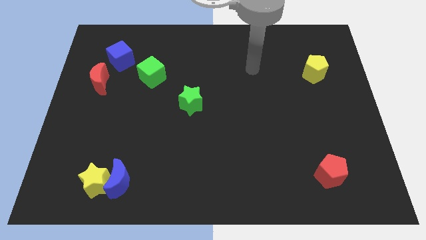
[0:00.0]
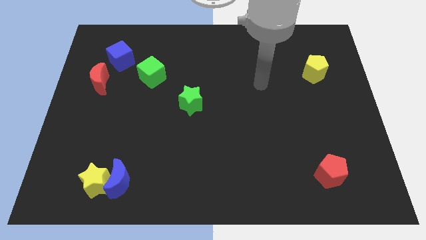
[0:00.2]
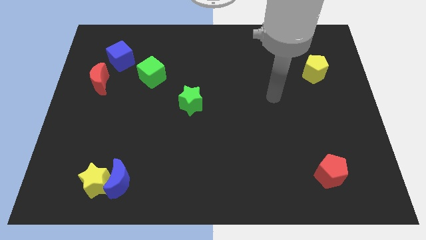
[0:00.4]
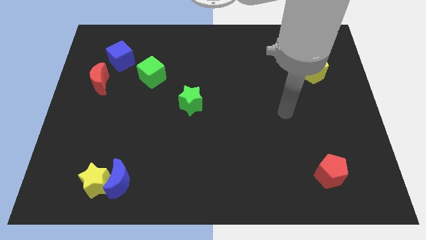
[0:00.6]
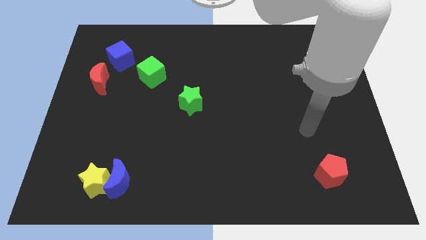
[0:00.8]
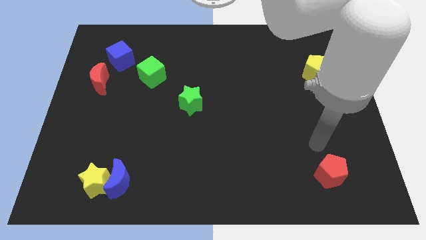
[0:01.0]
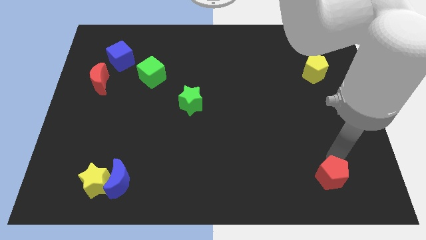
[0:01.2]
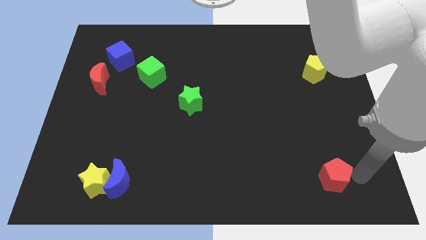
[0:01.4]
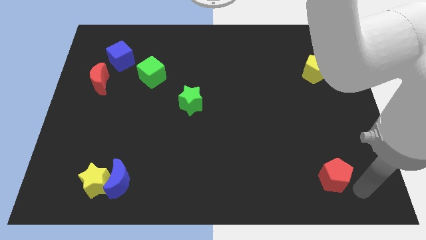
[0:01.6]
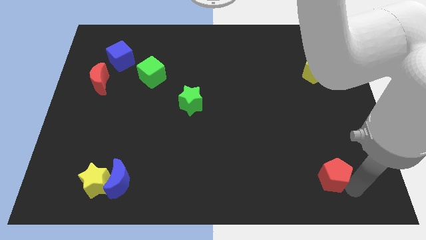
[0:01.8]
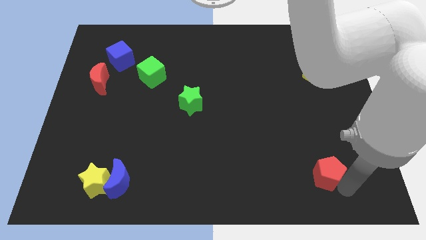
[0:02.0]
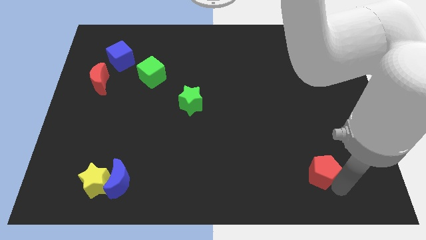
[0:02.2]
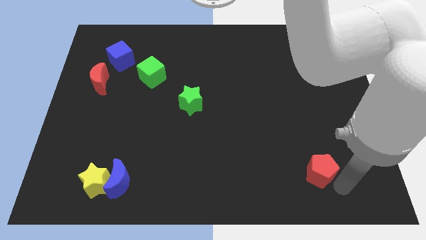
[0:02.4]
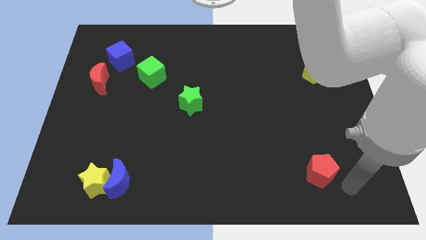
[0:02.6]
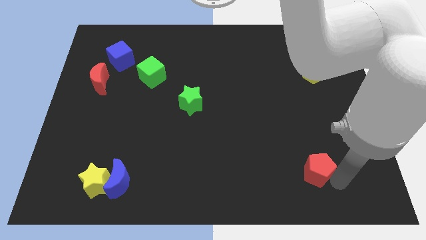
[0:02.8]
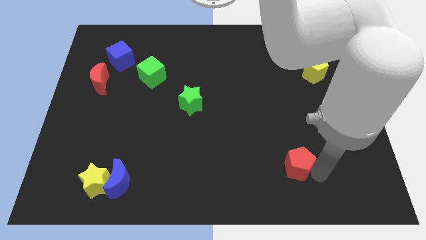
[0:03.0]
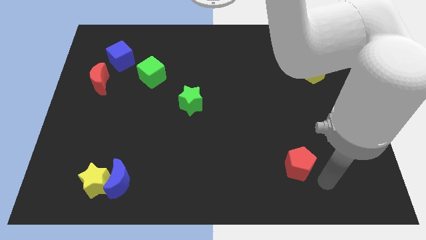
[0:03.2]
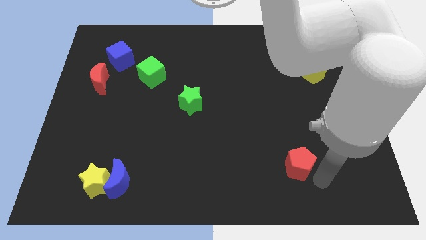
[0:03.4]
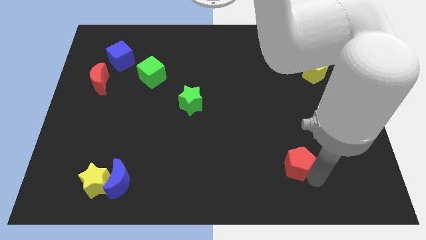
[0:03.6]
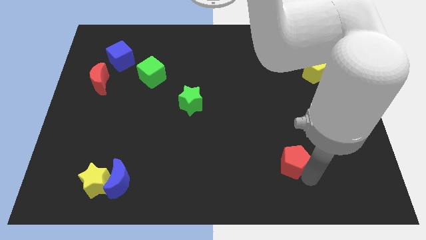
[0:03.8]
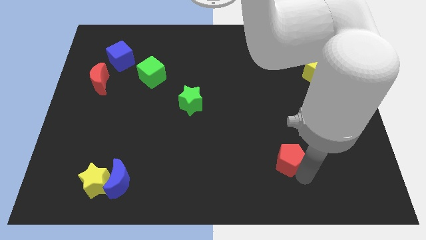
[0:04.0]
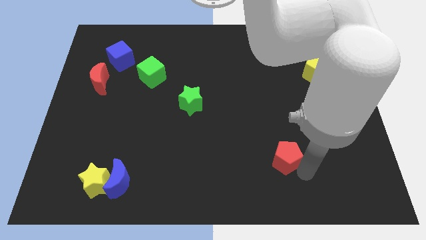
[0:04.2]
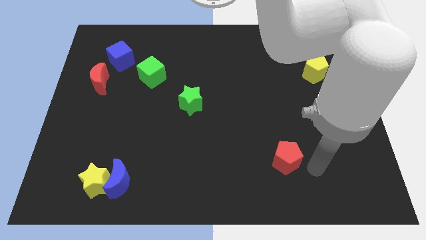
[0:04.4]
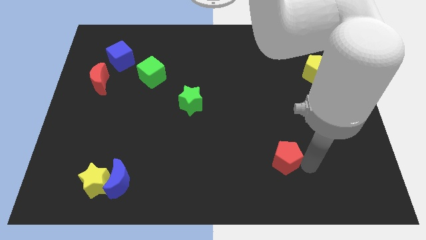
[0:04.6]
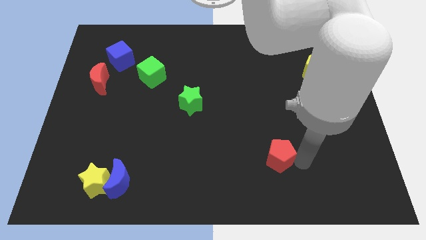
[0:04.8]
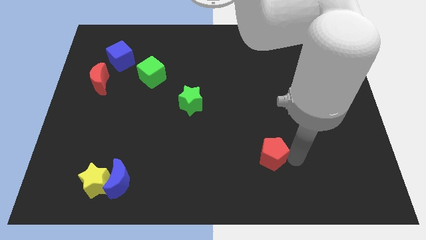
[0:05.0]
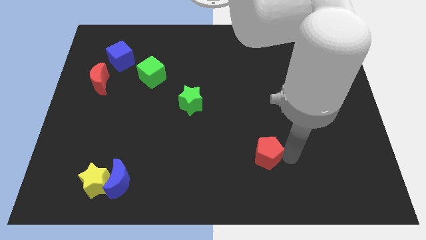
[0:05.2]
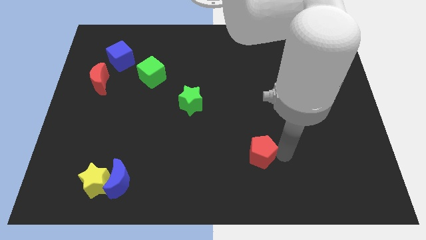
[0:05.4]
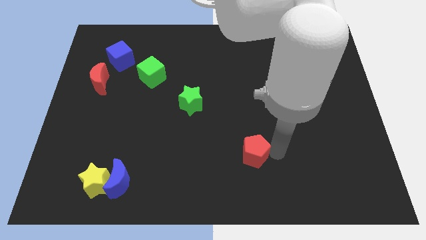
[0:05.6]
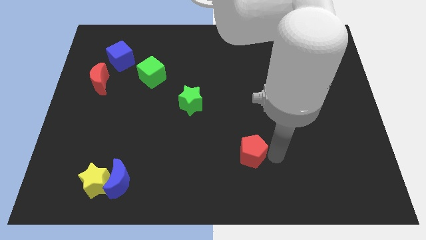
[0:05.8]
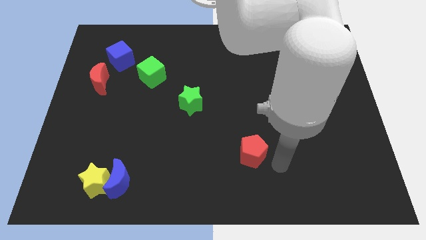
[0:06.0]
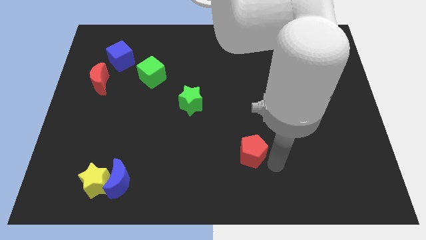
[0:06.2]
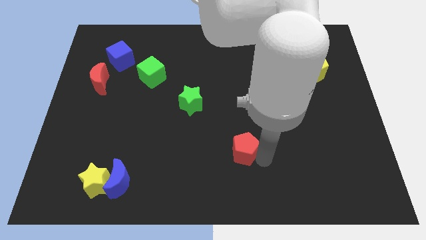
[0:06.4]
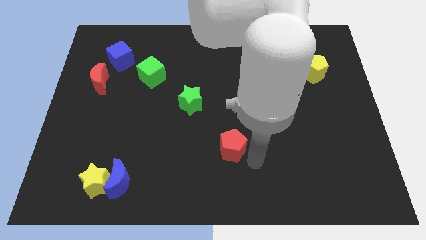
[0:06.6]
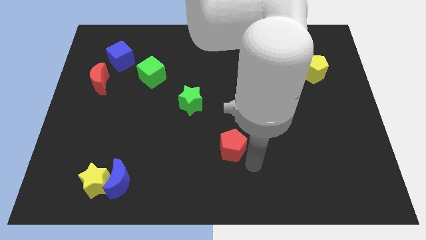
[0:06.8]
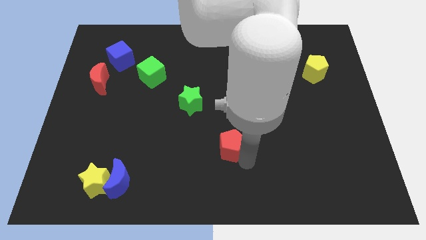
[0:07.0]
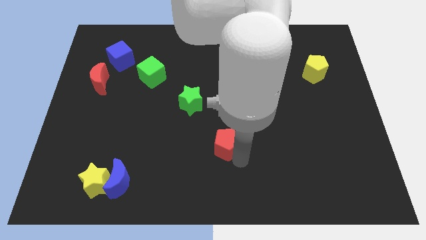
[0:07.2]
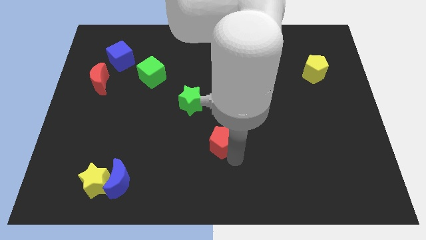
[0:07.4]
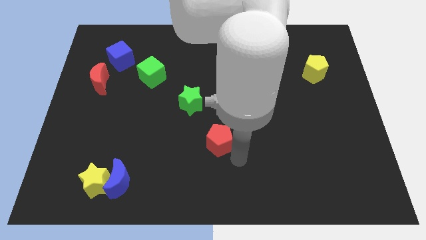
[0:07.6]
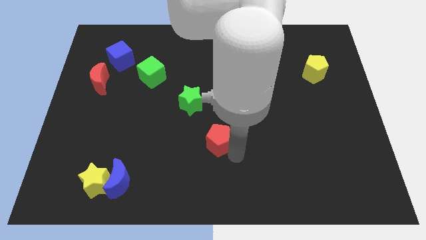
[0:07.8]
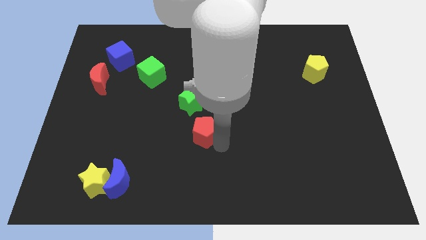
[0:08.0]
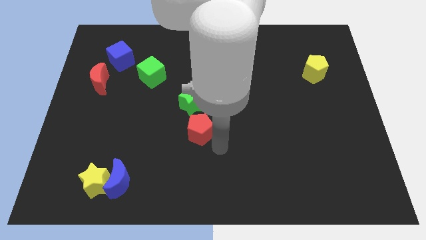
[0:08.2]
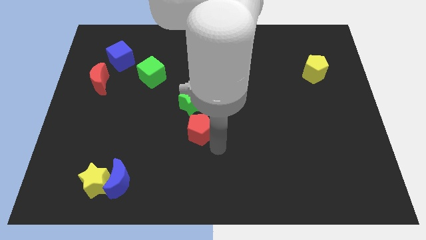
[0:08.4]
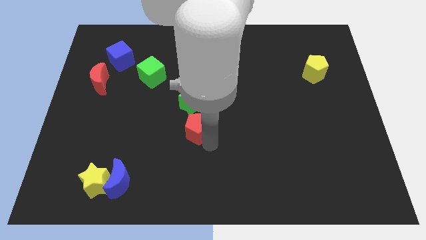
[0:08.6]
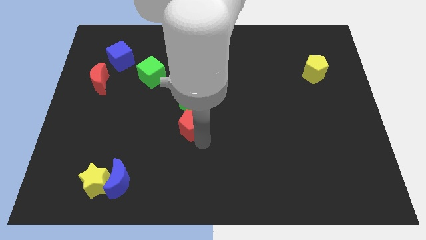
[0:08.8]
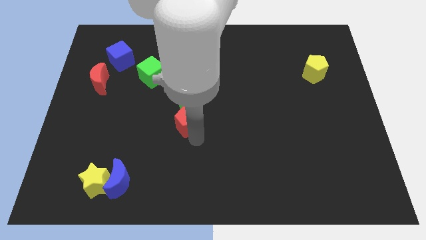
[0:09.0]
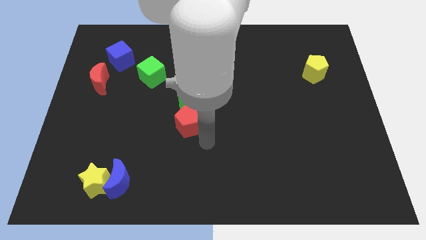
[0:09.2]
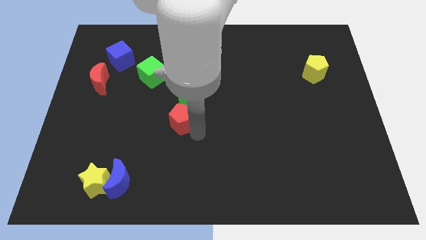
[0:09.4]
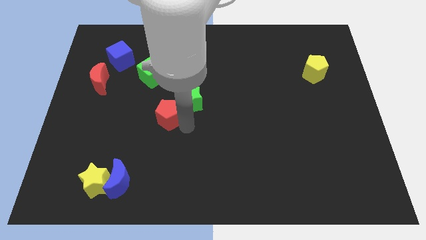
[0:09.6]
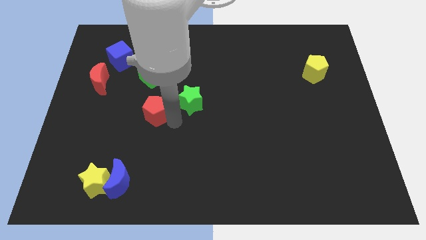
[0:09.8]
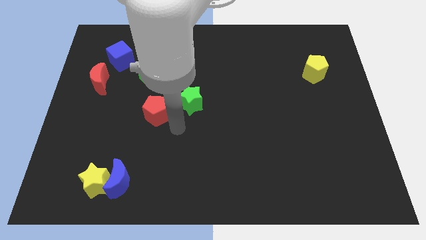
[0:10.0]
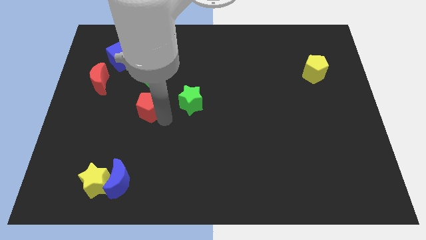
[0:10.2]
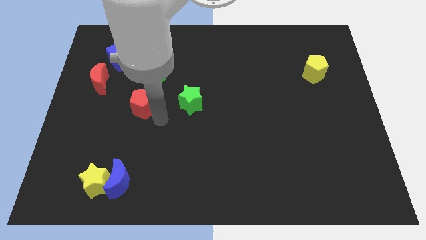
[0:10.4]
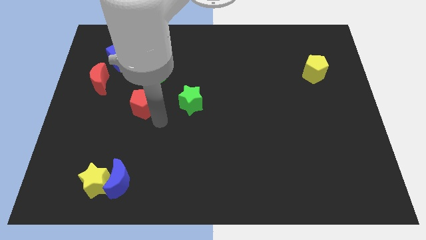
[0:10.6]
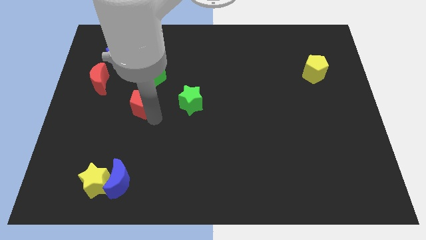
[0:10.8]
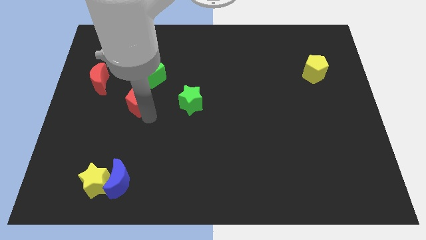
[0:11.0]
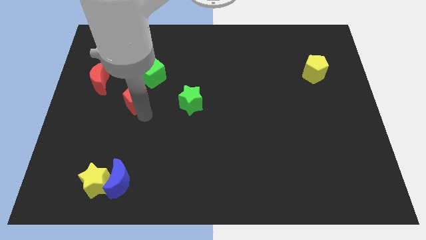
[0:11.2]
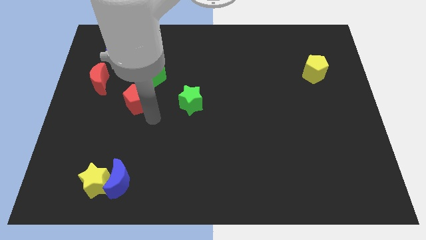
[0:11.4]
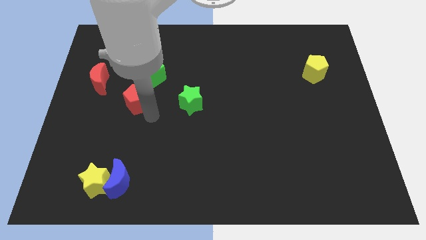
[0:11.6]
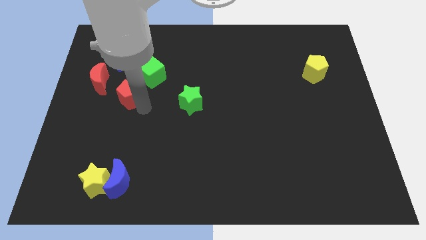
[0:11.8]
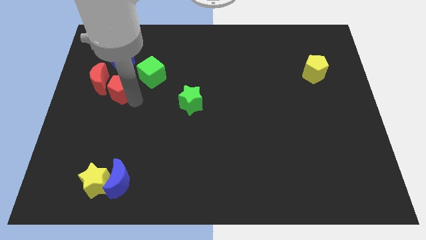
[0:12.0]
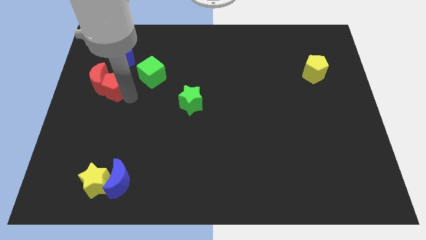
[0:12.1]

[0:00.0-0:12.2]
push the red pentagon towards the red moon

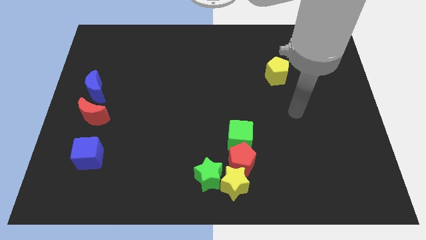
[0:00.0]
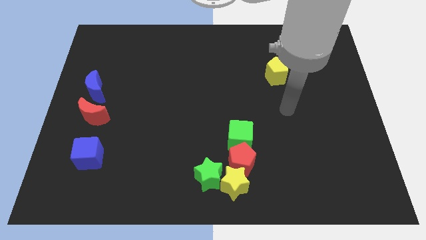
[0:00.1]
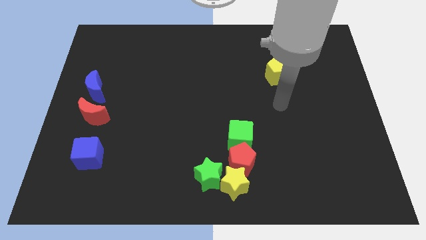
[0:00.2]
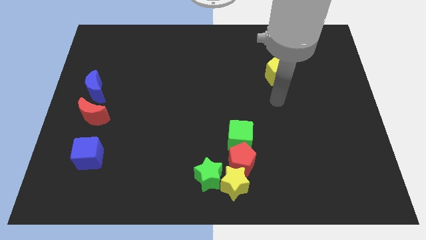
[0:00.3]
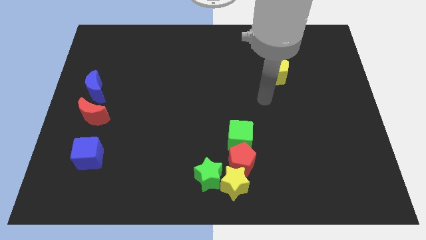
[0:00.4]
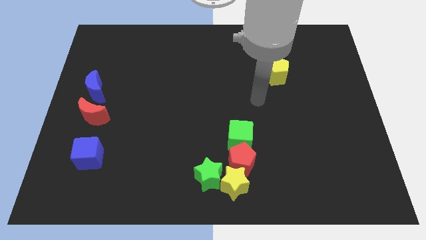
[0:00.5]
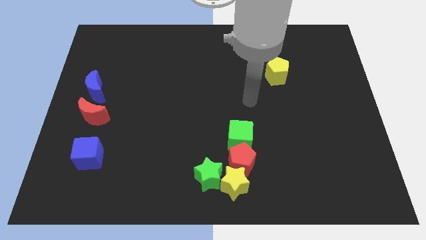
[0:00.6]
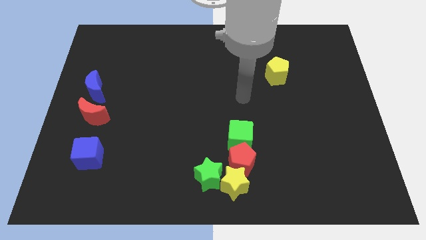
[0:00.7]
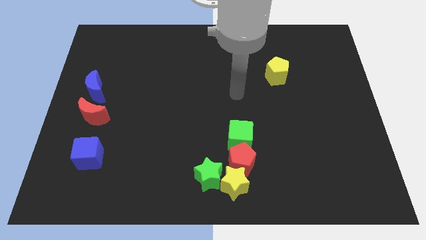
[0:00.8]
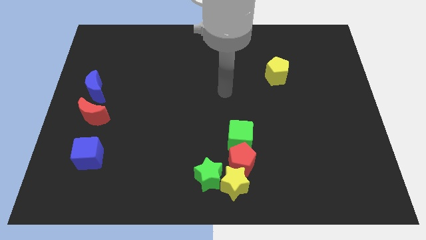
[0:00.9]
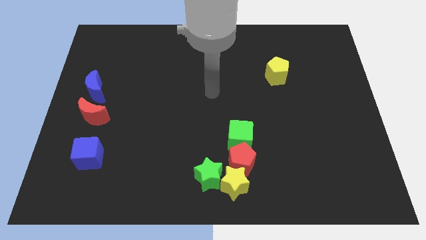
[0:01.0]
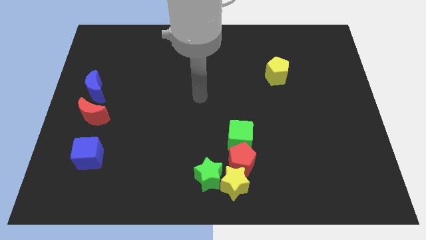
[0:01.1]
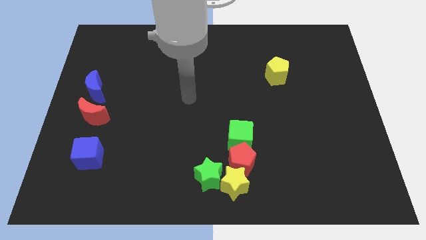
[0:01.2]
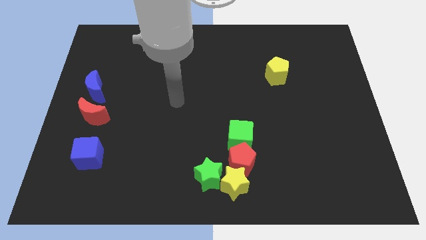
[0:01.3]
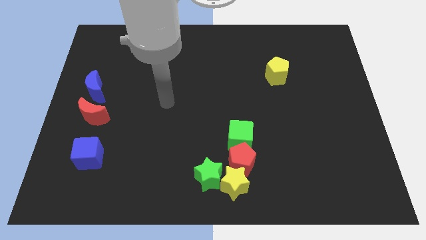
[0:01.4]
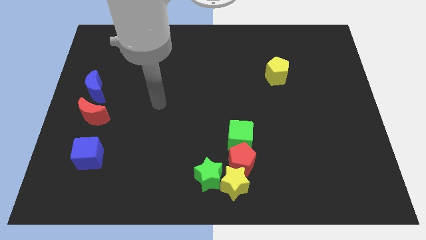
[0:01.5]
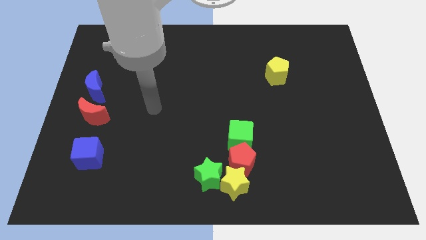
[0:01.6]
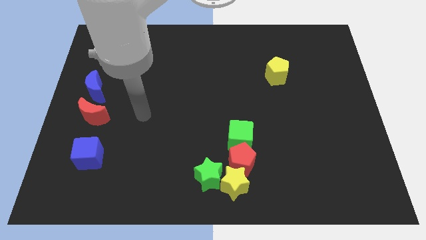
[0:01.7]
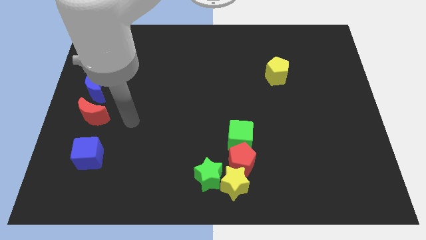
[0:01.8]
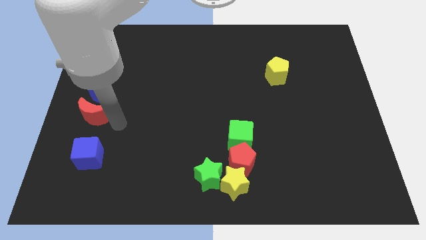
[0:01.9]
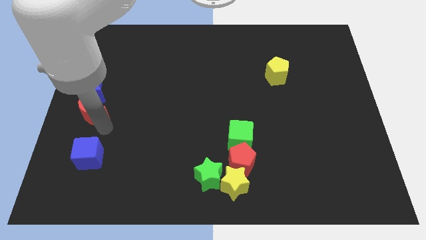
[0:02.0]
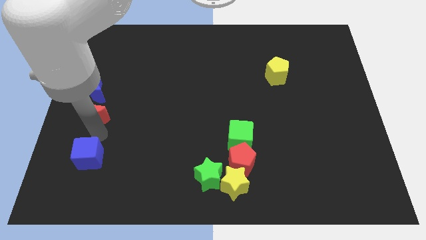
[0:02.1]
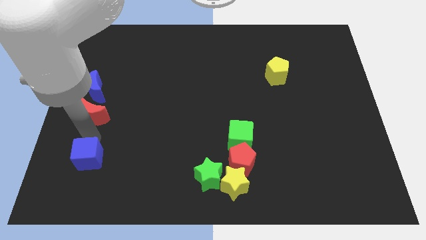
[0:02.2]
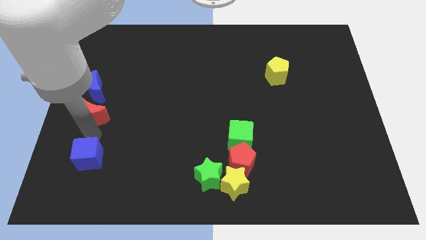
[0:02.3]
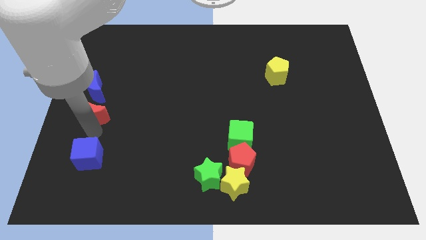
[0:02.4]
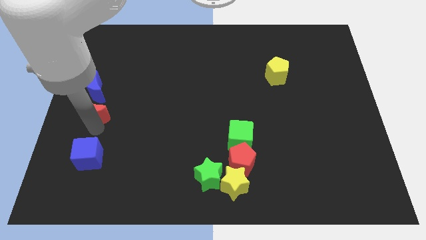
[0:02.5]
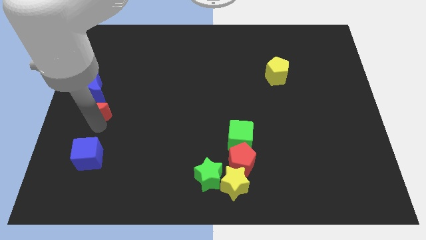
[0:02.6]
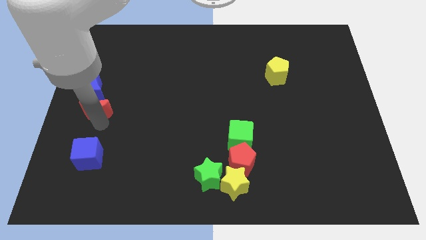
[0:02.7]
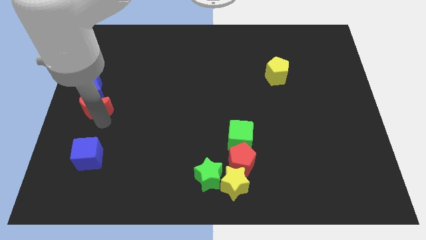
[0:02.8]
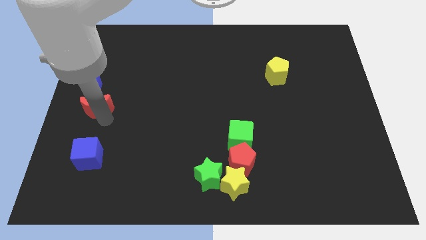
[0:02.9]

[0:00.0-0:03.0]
move the red moon towards the blue moon
